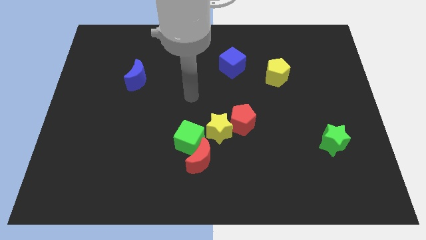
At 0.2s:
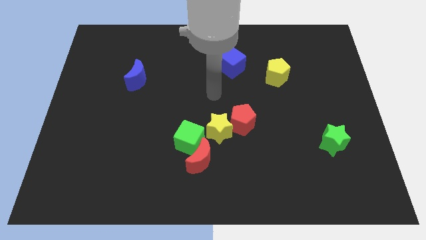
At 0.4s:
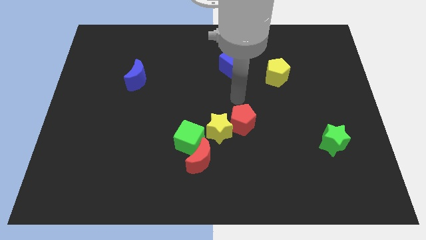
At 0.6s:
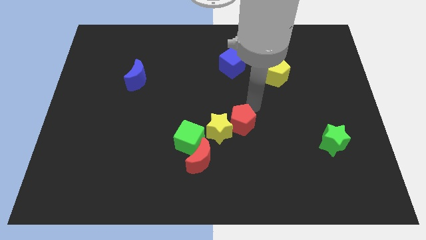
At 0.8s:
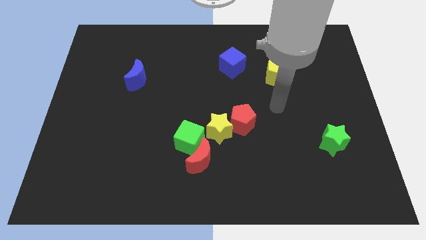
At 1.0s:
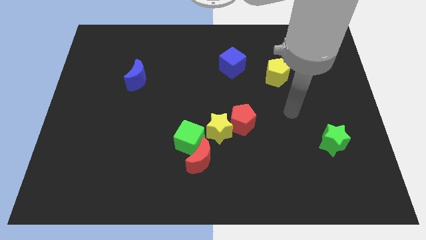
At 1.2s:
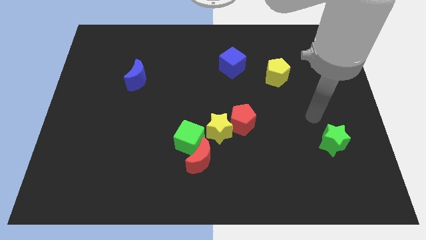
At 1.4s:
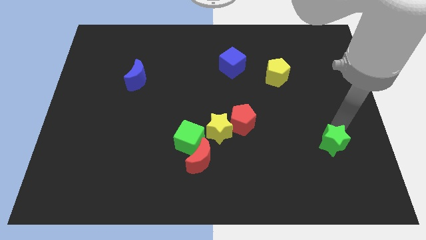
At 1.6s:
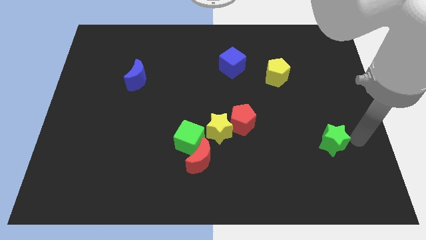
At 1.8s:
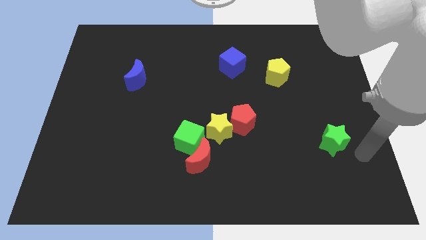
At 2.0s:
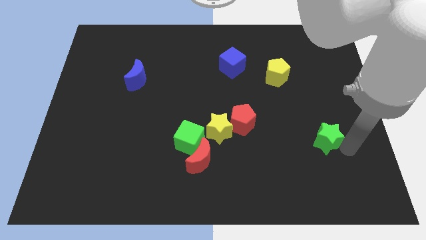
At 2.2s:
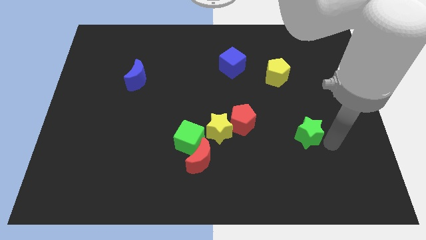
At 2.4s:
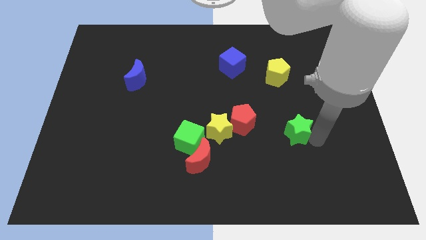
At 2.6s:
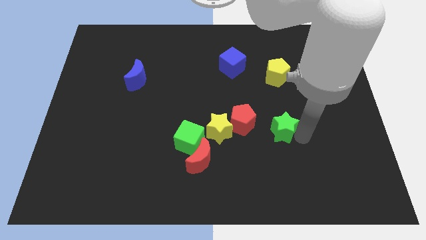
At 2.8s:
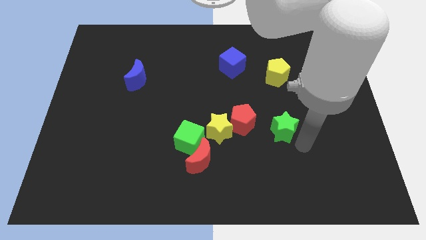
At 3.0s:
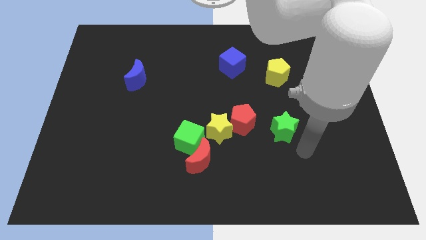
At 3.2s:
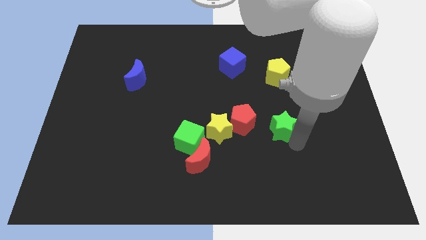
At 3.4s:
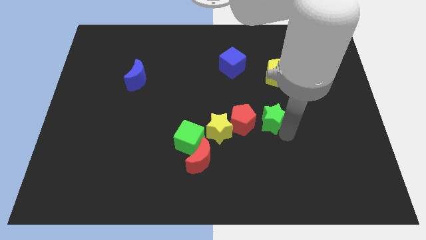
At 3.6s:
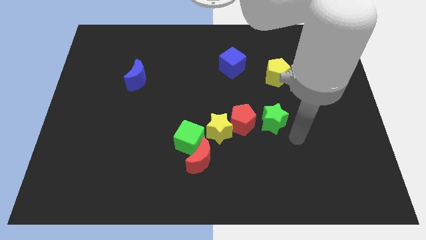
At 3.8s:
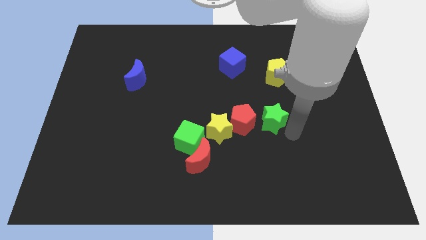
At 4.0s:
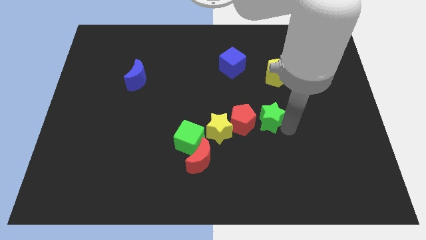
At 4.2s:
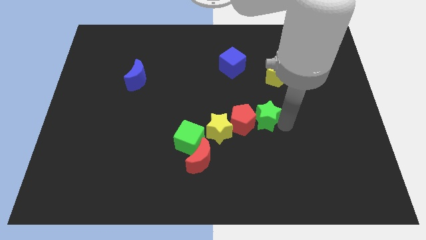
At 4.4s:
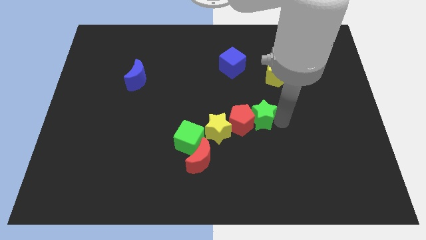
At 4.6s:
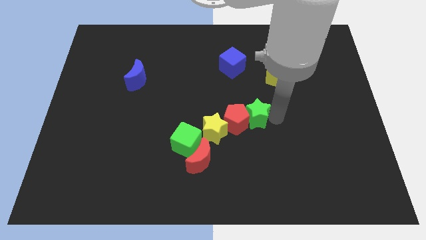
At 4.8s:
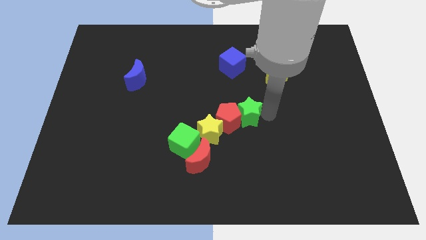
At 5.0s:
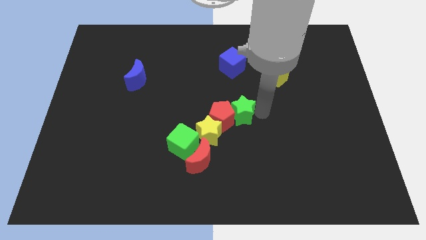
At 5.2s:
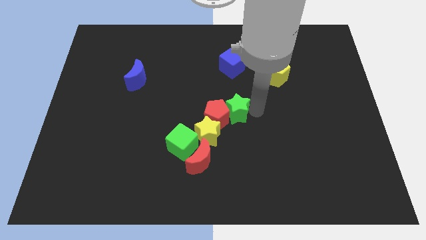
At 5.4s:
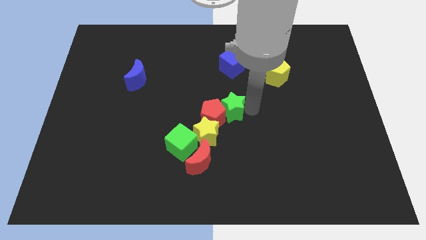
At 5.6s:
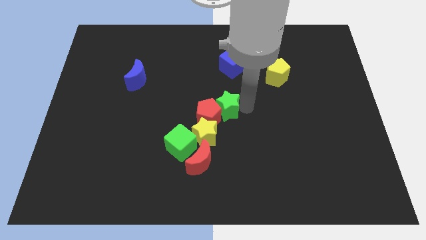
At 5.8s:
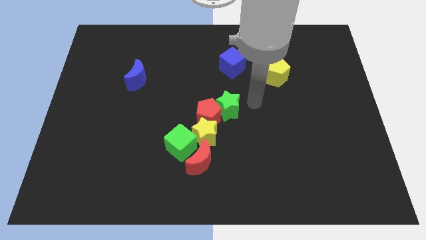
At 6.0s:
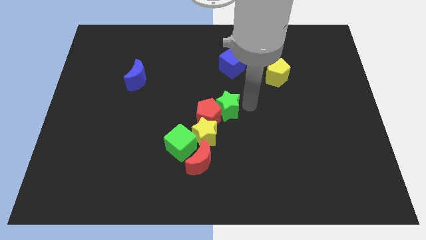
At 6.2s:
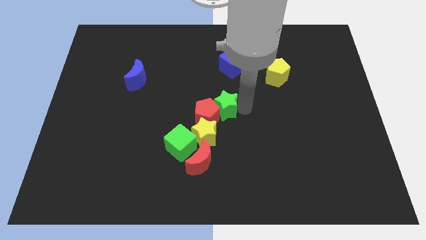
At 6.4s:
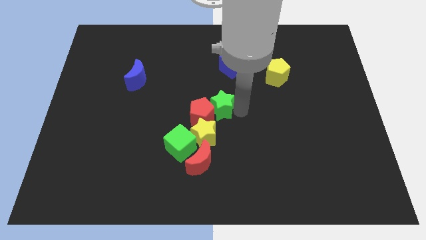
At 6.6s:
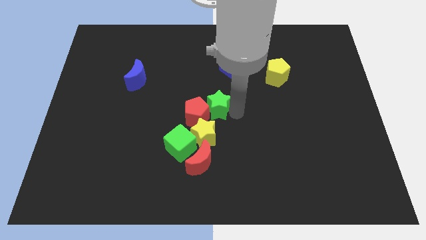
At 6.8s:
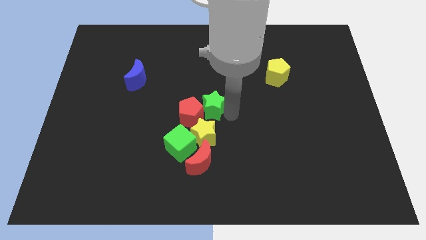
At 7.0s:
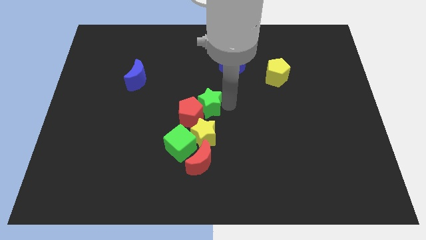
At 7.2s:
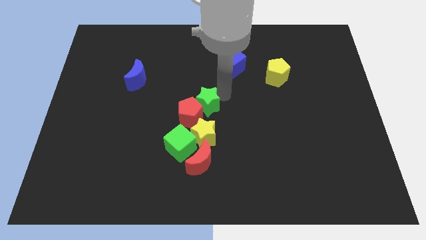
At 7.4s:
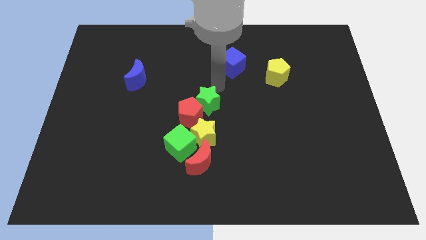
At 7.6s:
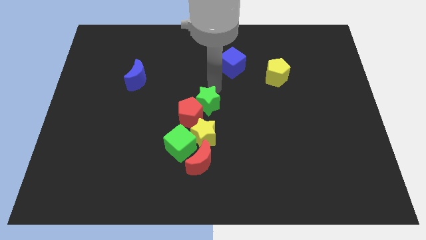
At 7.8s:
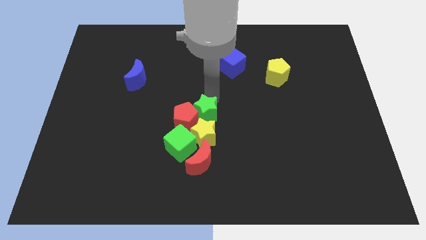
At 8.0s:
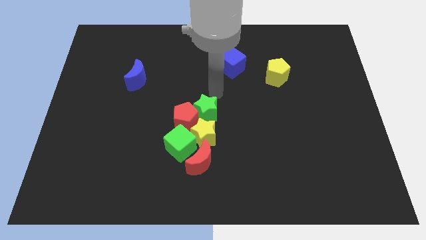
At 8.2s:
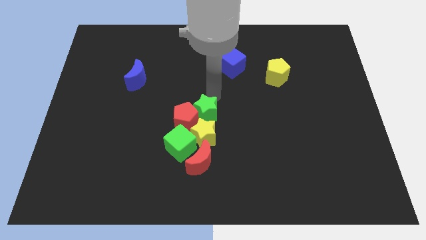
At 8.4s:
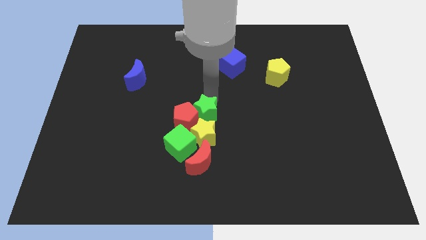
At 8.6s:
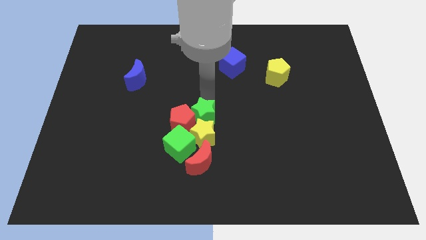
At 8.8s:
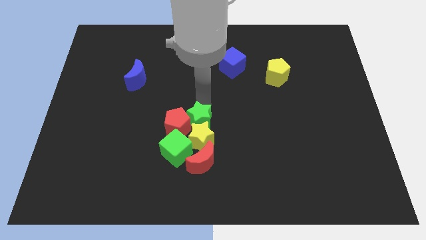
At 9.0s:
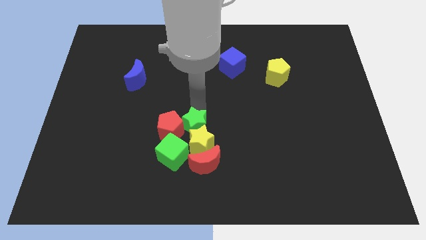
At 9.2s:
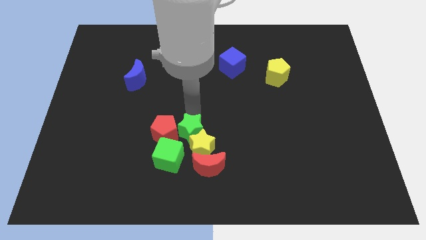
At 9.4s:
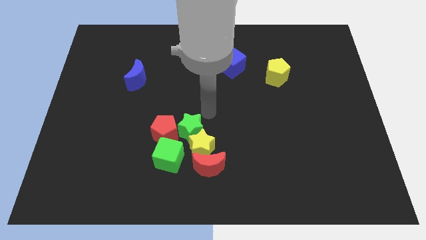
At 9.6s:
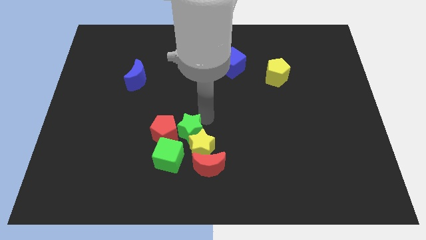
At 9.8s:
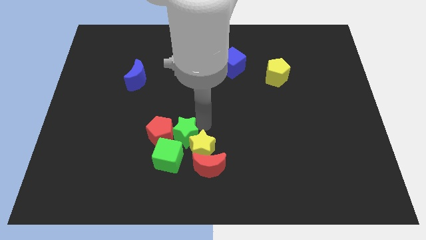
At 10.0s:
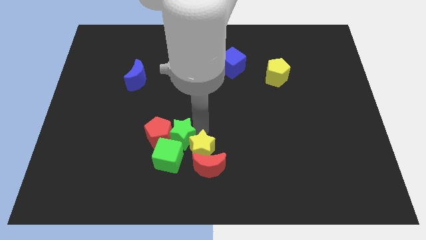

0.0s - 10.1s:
move the green star to the green cube

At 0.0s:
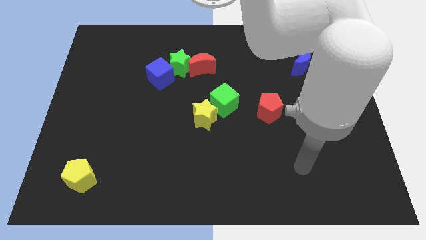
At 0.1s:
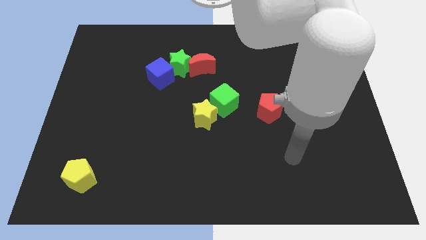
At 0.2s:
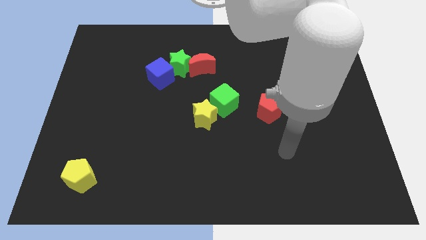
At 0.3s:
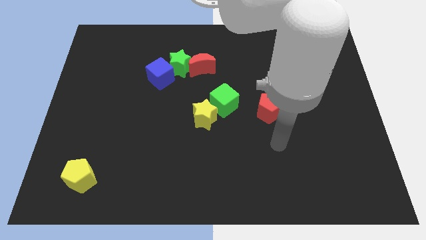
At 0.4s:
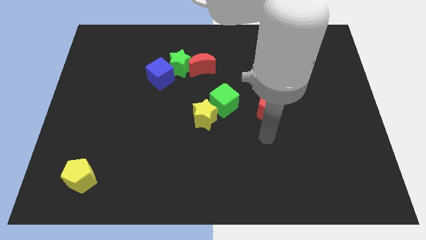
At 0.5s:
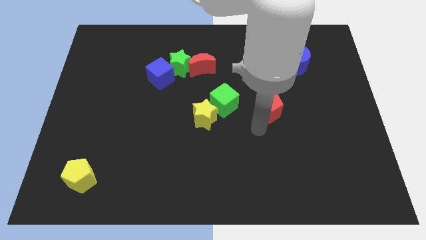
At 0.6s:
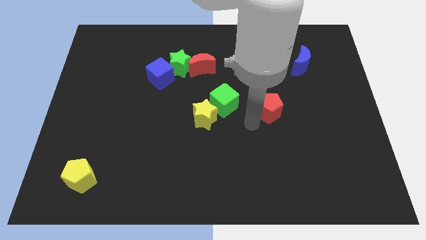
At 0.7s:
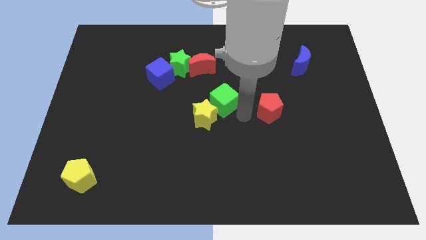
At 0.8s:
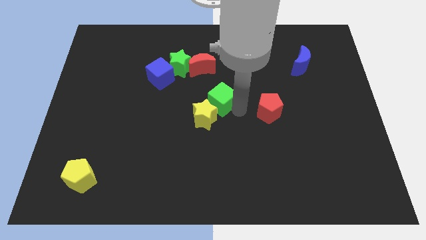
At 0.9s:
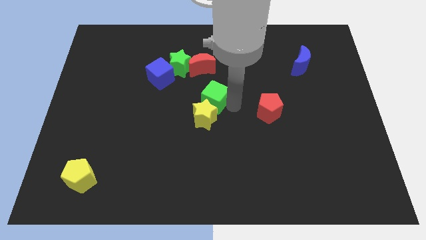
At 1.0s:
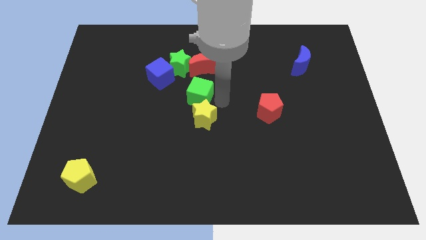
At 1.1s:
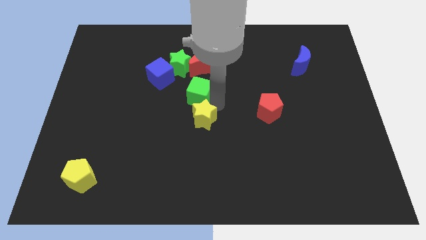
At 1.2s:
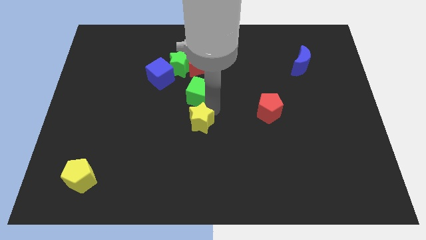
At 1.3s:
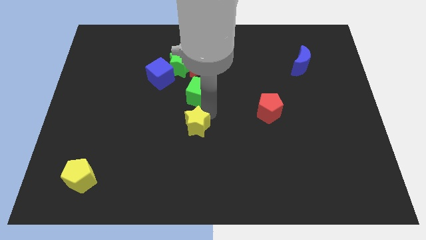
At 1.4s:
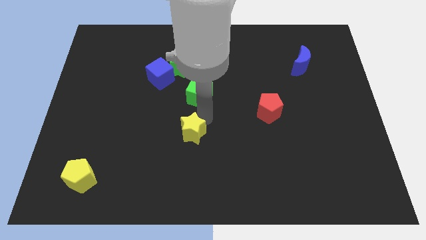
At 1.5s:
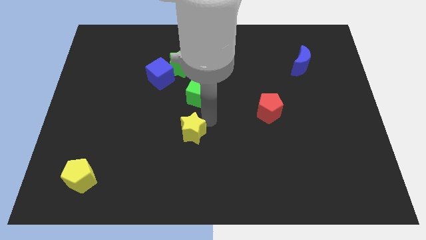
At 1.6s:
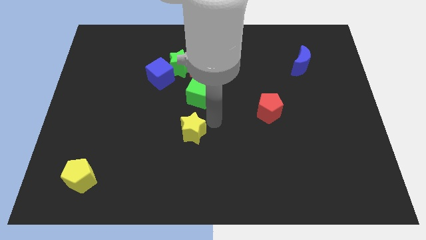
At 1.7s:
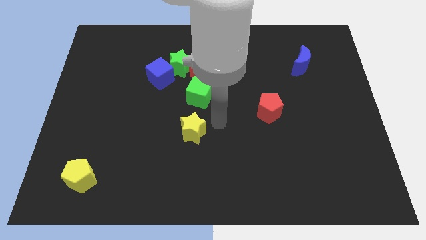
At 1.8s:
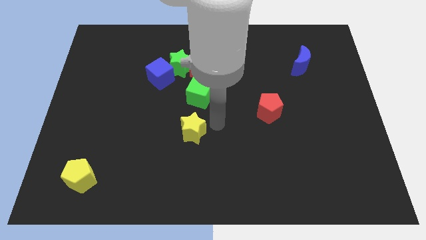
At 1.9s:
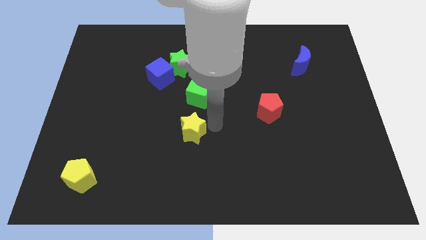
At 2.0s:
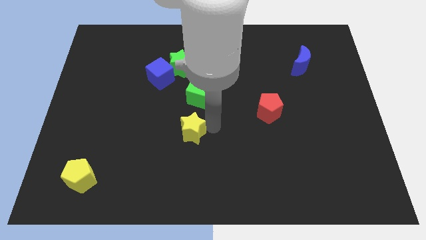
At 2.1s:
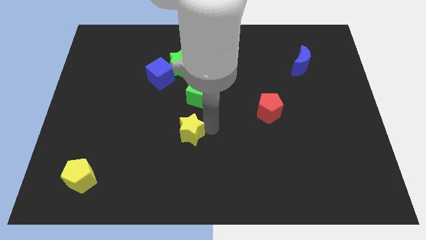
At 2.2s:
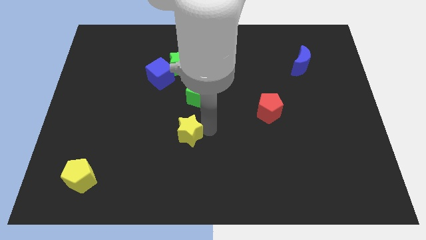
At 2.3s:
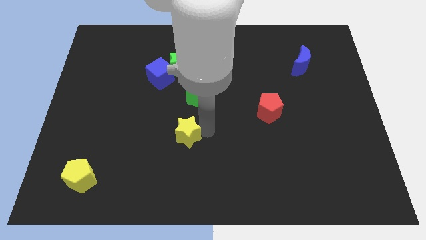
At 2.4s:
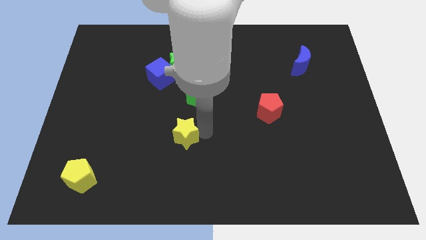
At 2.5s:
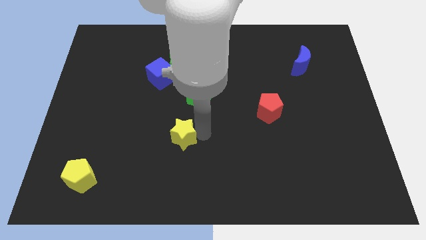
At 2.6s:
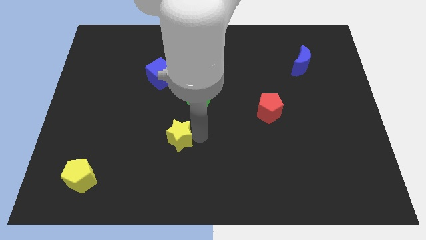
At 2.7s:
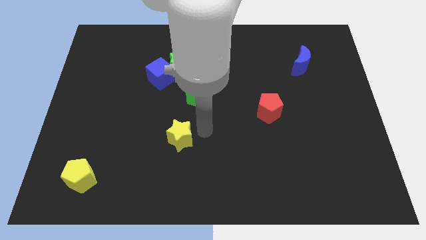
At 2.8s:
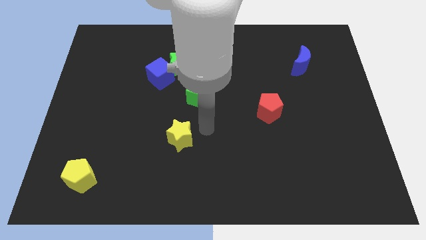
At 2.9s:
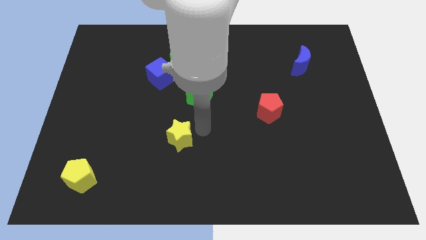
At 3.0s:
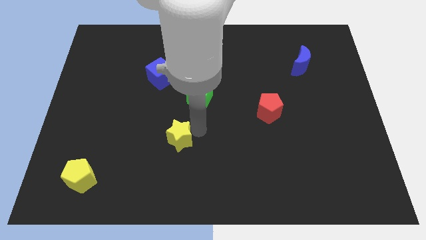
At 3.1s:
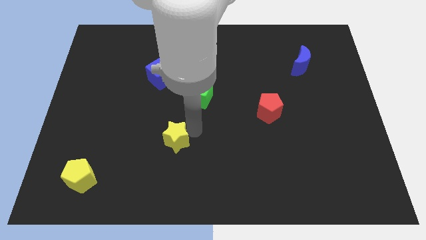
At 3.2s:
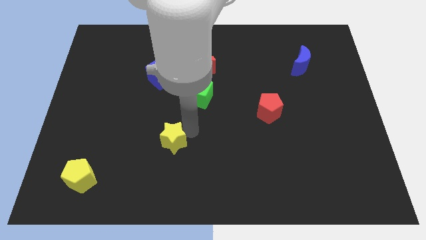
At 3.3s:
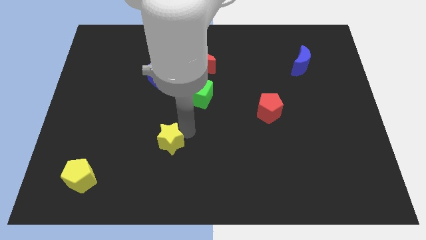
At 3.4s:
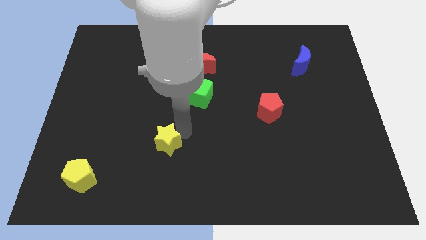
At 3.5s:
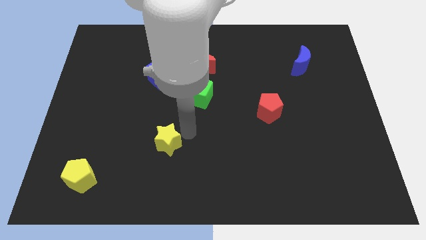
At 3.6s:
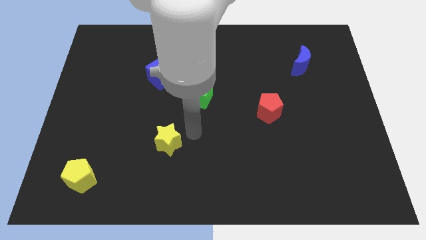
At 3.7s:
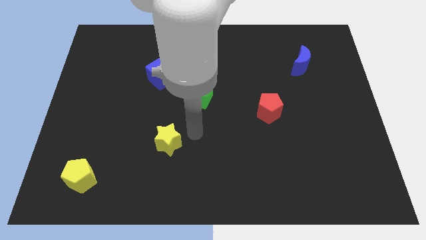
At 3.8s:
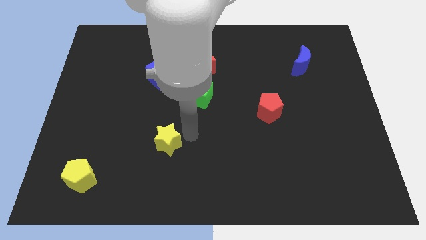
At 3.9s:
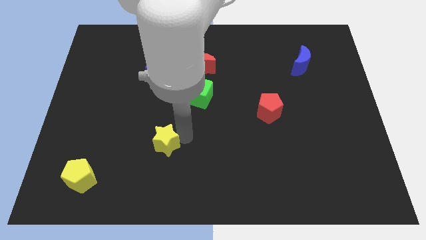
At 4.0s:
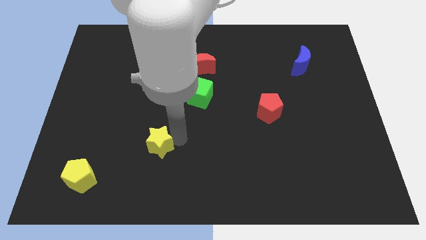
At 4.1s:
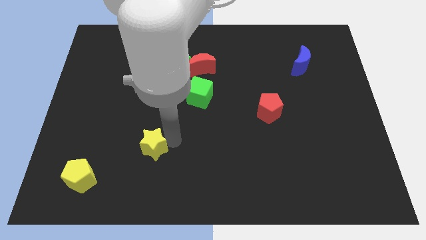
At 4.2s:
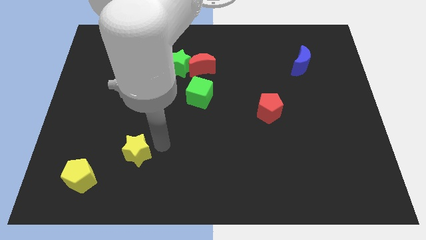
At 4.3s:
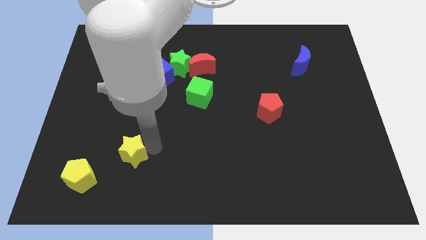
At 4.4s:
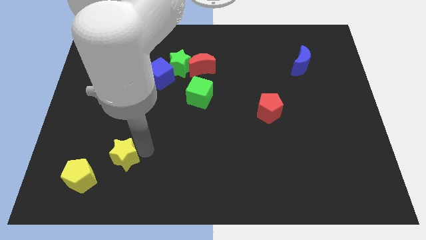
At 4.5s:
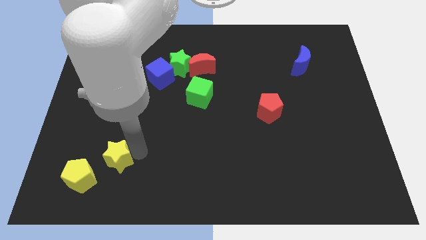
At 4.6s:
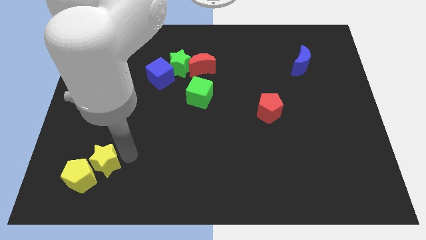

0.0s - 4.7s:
slide the yellow star to the yellow pentagon
